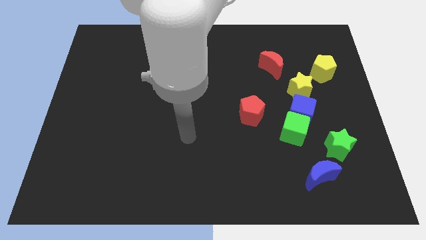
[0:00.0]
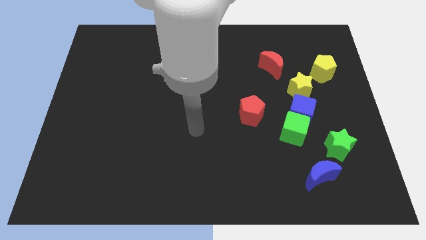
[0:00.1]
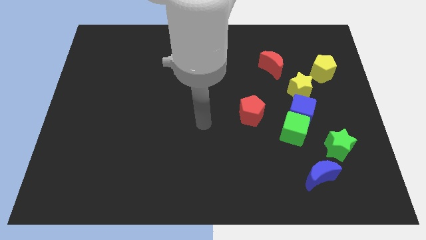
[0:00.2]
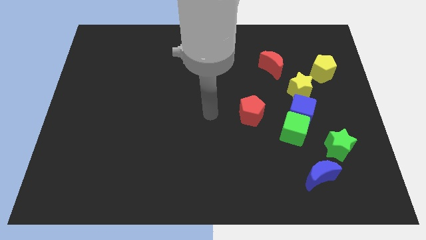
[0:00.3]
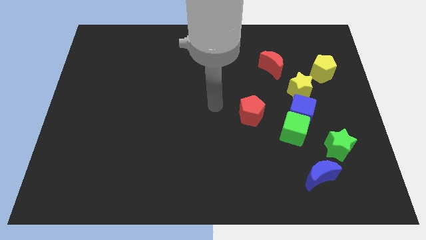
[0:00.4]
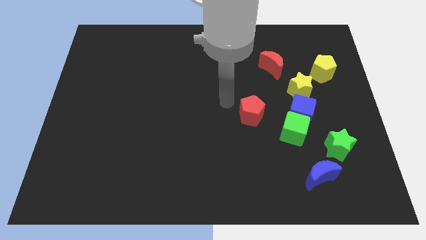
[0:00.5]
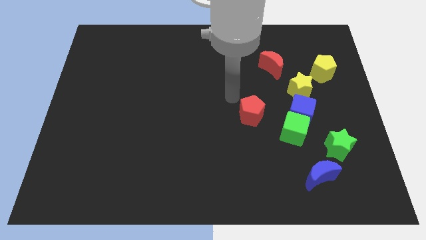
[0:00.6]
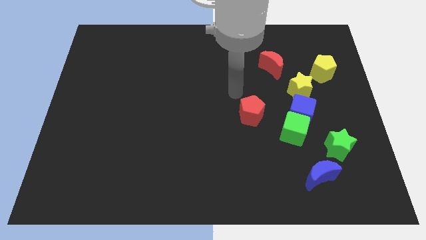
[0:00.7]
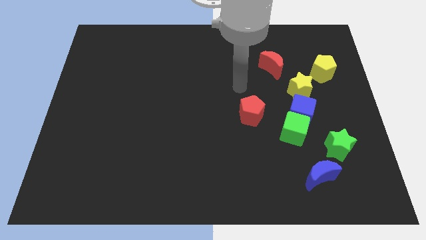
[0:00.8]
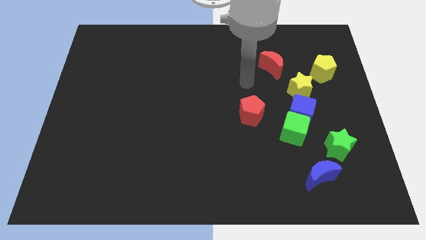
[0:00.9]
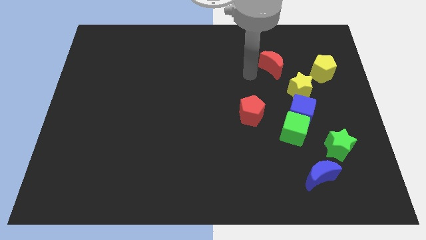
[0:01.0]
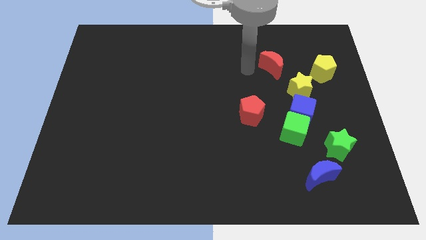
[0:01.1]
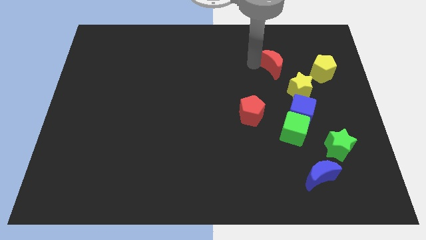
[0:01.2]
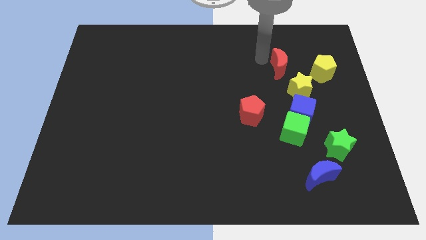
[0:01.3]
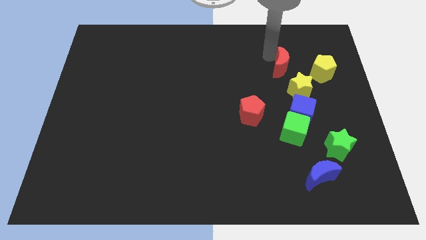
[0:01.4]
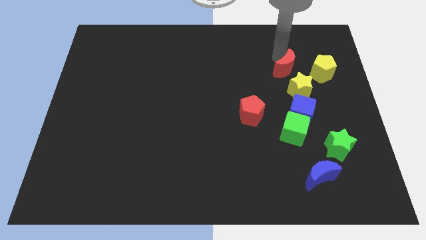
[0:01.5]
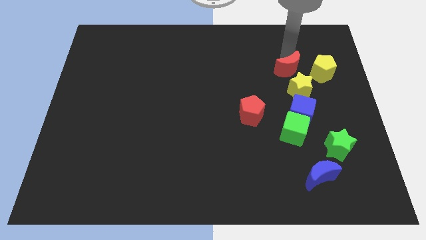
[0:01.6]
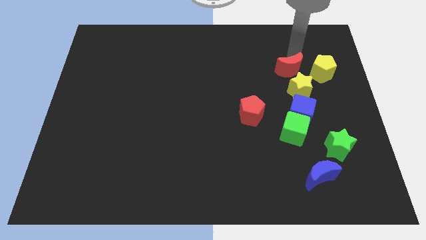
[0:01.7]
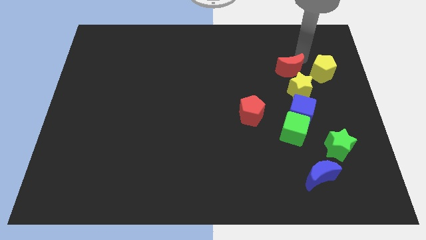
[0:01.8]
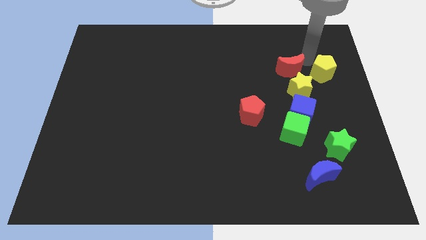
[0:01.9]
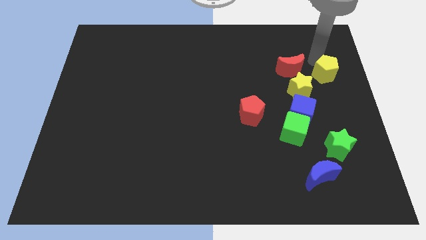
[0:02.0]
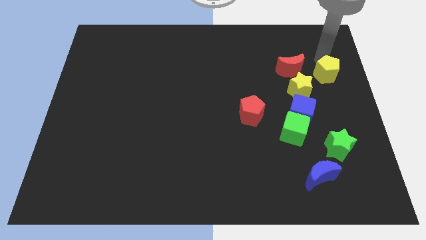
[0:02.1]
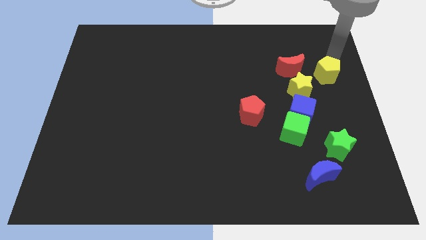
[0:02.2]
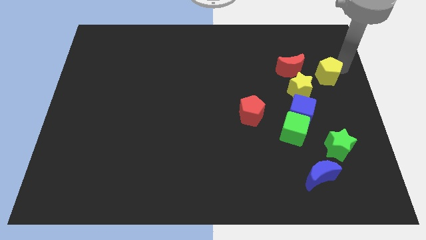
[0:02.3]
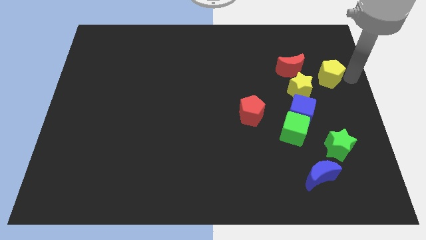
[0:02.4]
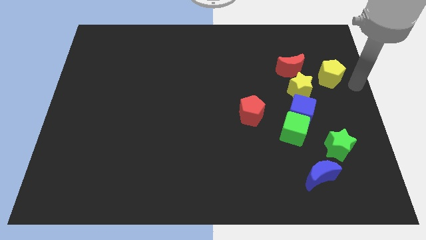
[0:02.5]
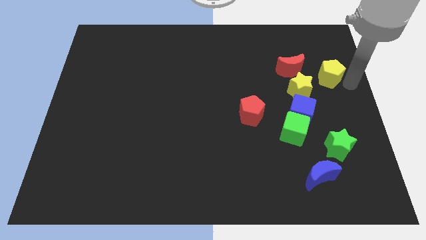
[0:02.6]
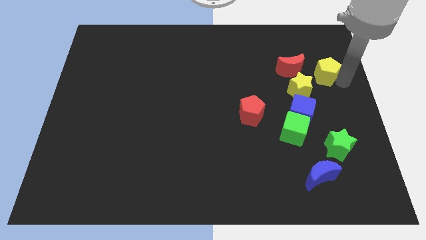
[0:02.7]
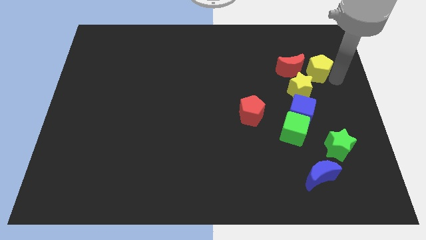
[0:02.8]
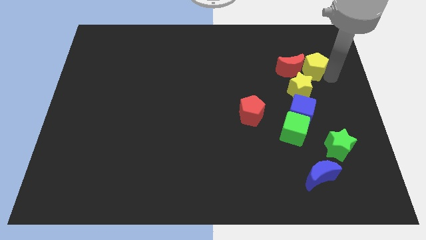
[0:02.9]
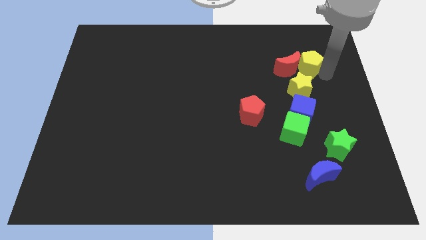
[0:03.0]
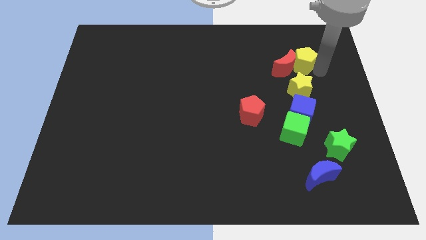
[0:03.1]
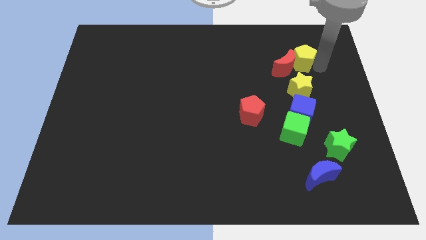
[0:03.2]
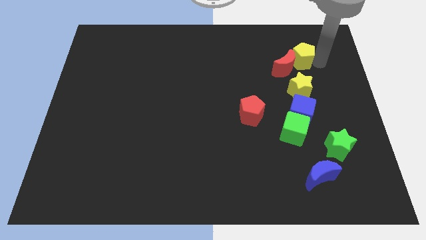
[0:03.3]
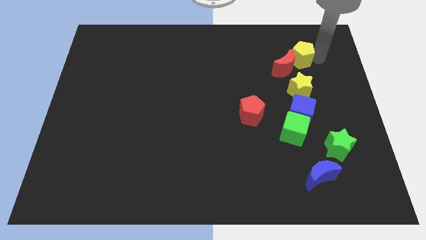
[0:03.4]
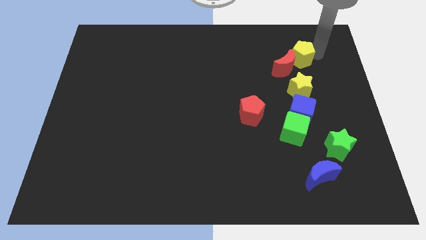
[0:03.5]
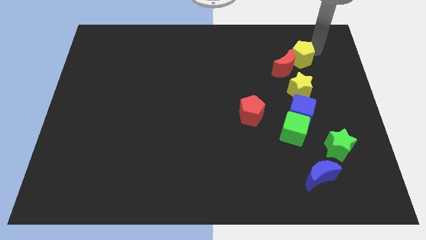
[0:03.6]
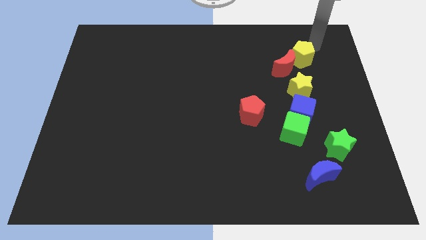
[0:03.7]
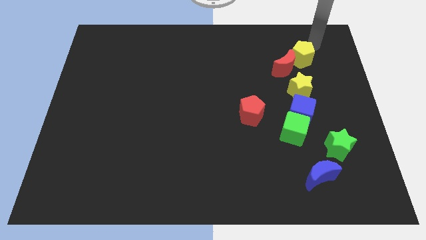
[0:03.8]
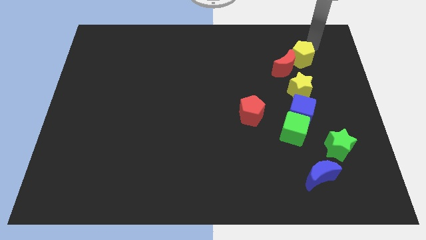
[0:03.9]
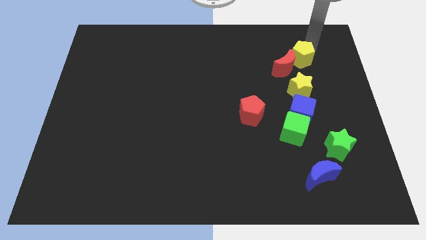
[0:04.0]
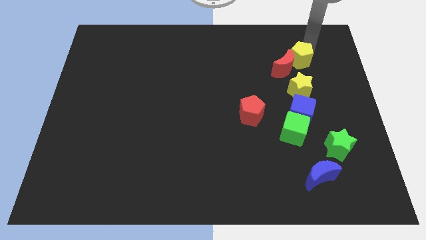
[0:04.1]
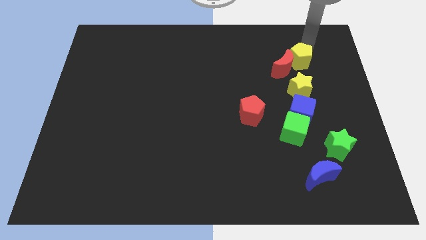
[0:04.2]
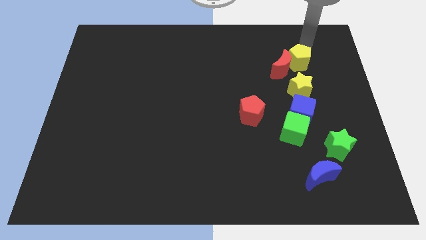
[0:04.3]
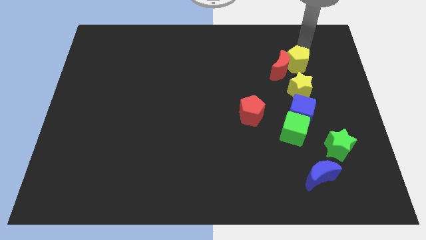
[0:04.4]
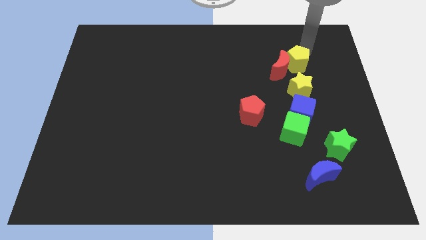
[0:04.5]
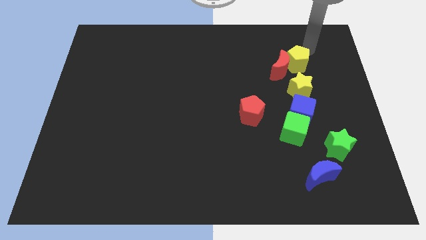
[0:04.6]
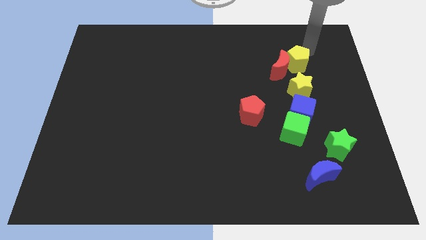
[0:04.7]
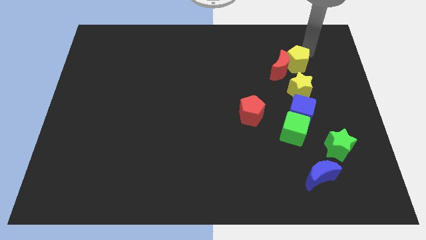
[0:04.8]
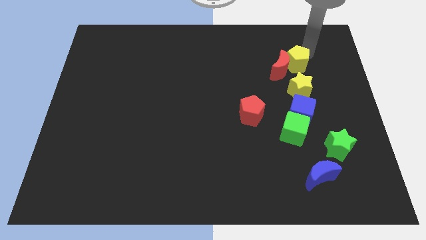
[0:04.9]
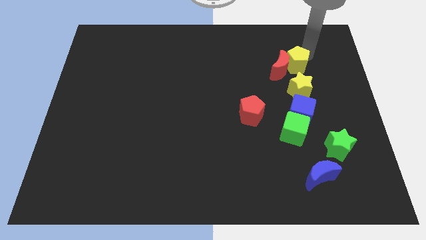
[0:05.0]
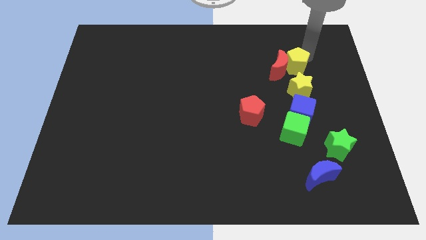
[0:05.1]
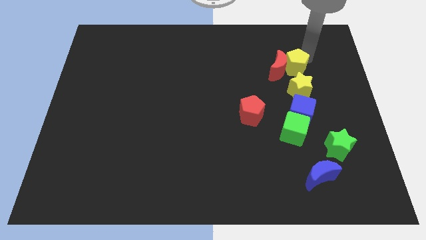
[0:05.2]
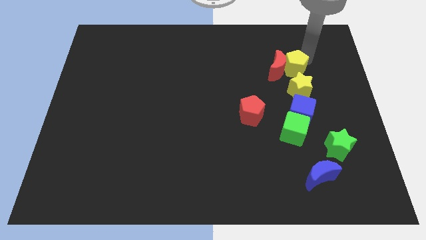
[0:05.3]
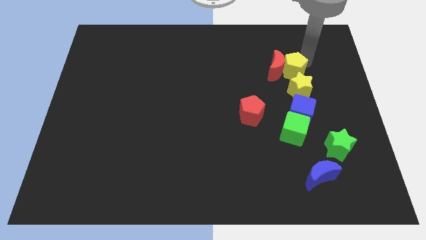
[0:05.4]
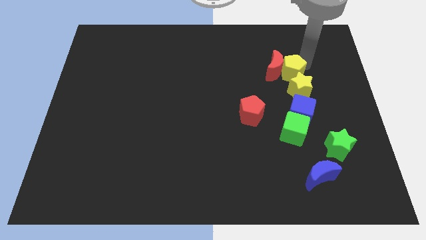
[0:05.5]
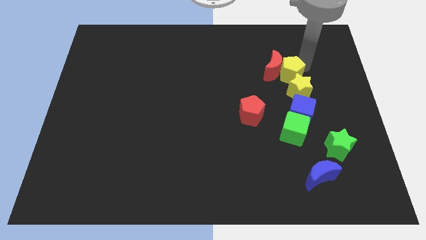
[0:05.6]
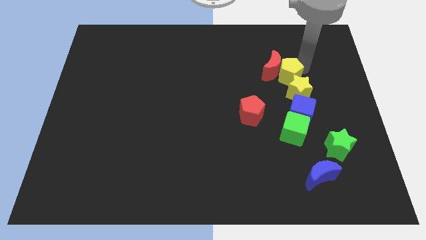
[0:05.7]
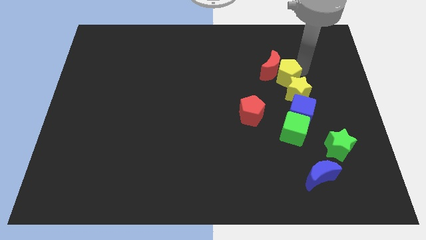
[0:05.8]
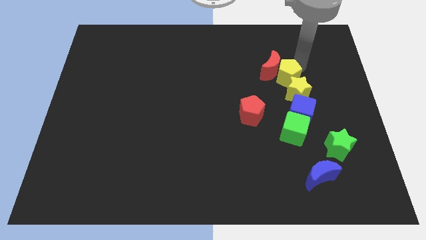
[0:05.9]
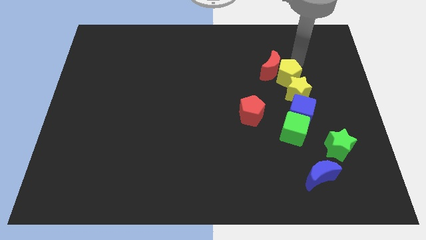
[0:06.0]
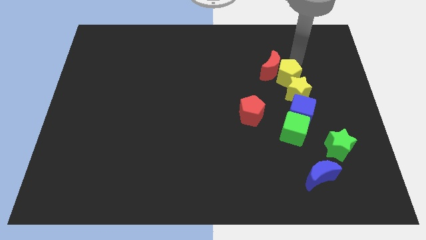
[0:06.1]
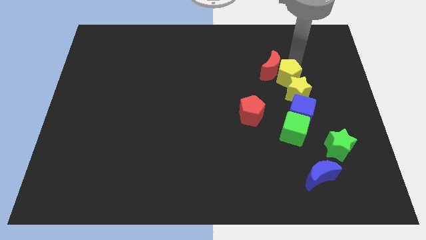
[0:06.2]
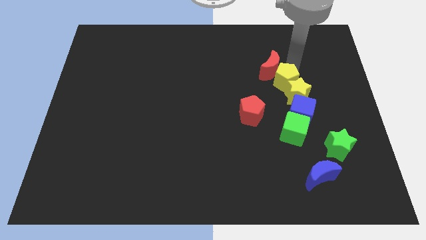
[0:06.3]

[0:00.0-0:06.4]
slide the yellow pentagon a little bit diagonally down and to the left

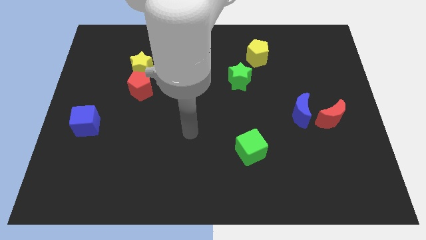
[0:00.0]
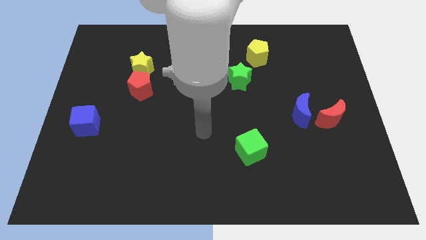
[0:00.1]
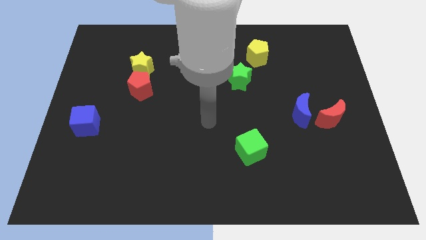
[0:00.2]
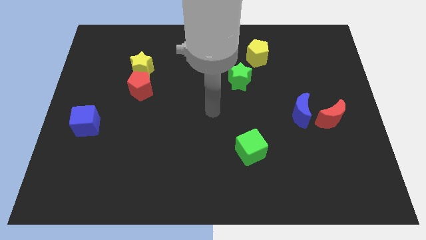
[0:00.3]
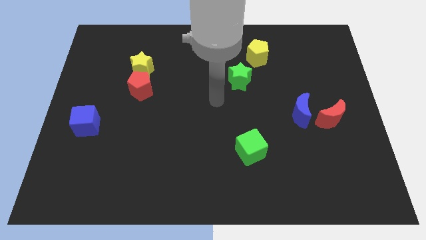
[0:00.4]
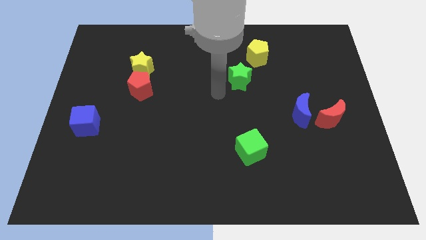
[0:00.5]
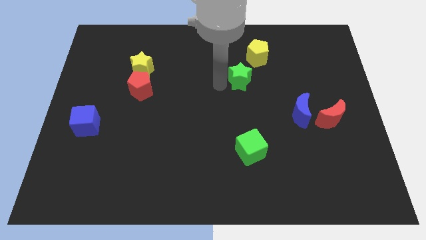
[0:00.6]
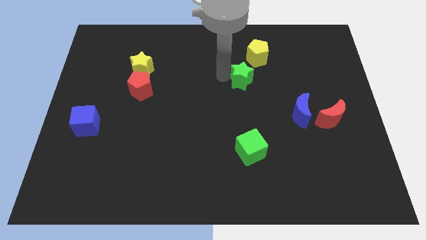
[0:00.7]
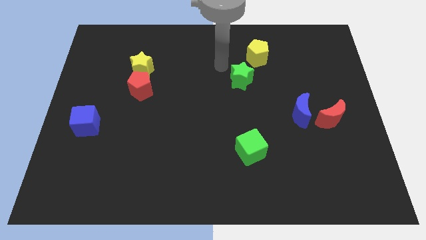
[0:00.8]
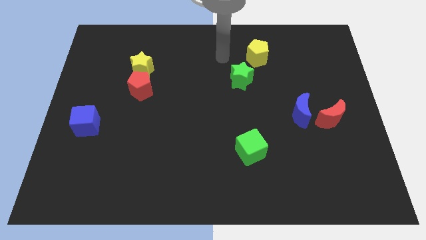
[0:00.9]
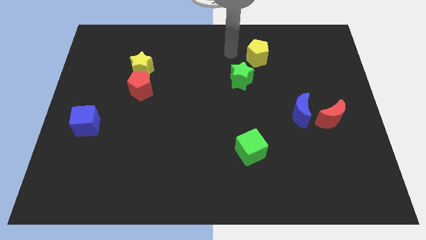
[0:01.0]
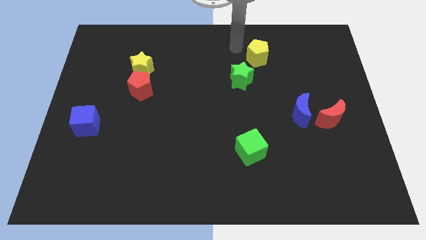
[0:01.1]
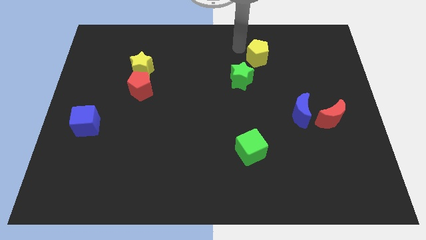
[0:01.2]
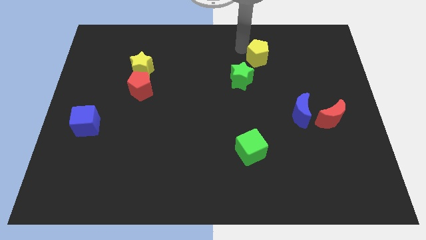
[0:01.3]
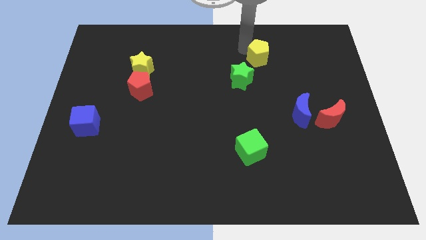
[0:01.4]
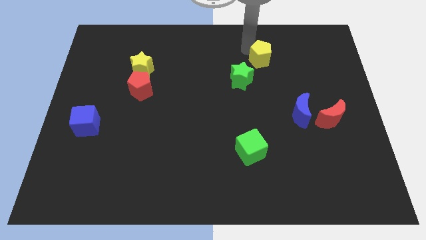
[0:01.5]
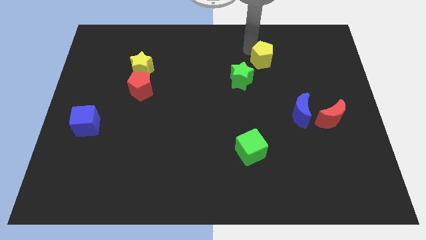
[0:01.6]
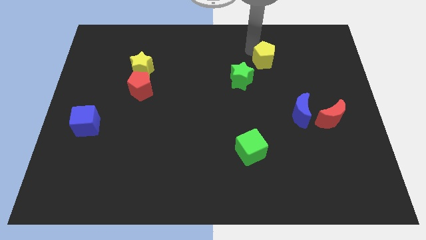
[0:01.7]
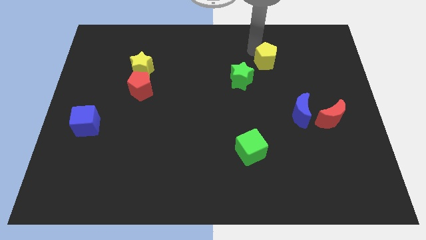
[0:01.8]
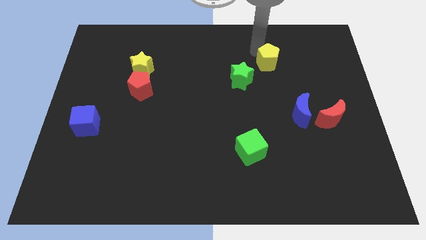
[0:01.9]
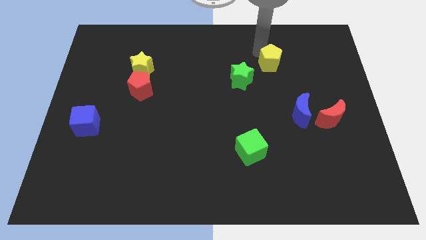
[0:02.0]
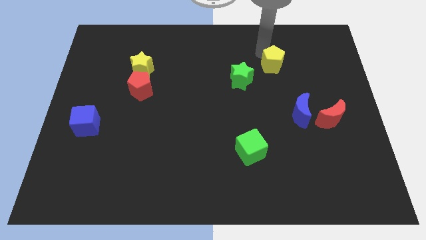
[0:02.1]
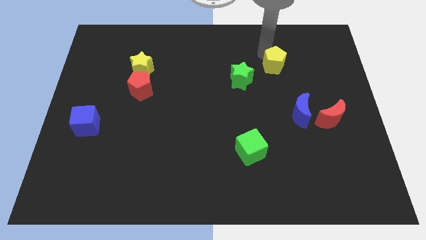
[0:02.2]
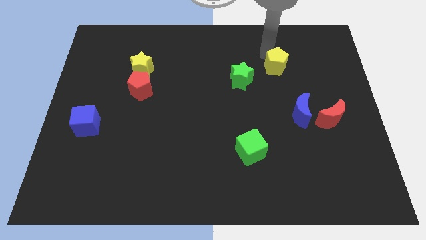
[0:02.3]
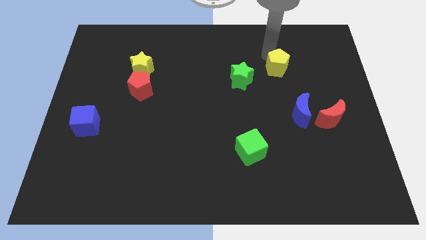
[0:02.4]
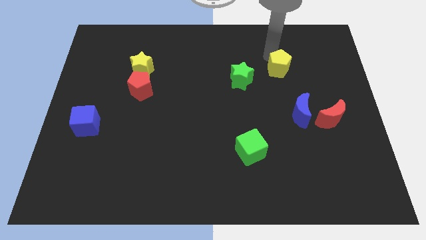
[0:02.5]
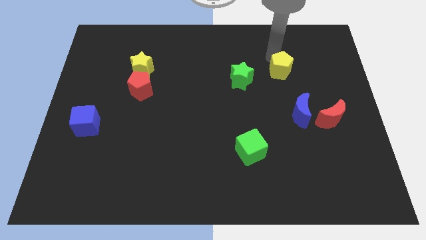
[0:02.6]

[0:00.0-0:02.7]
push the yellow pentagon a bit down and then right
